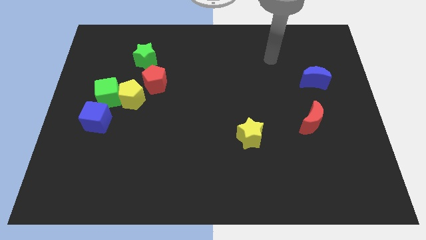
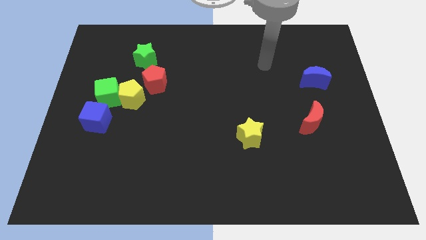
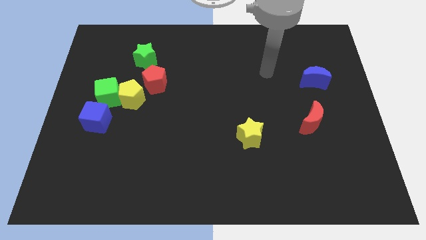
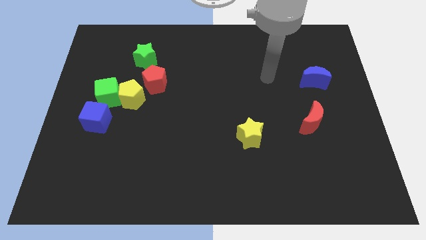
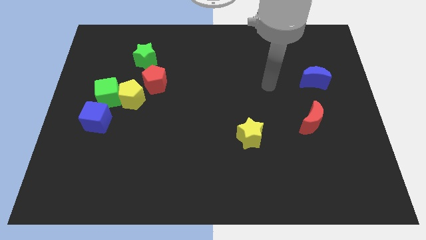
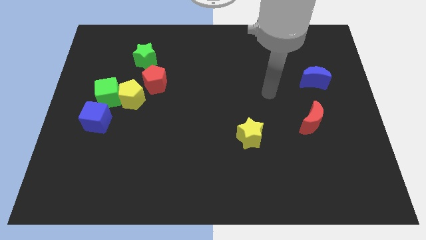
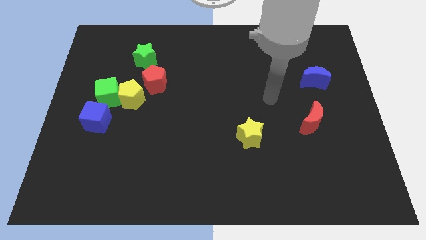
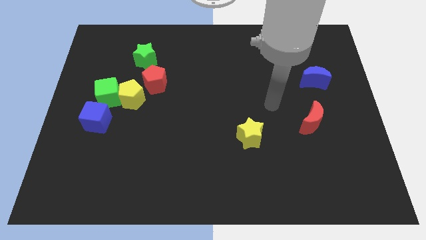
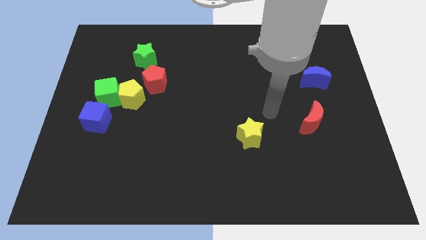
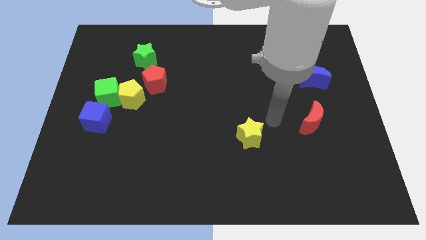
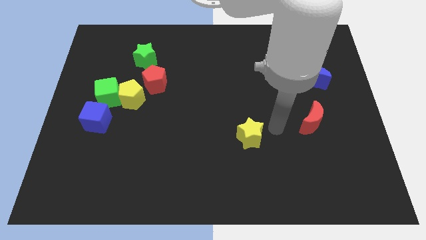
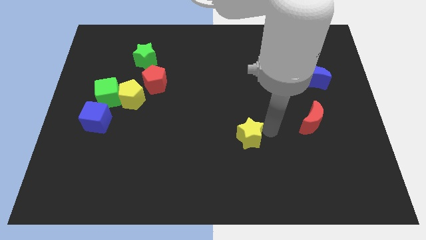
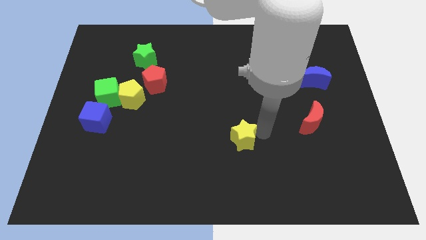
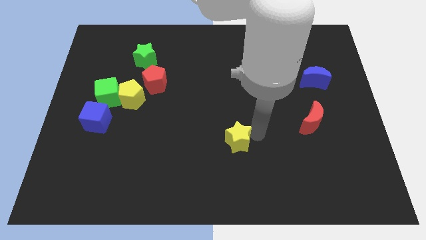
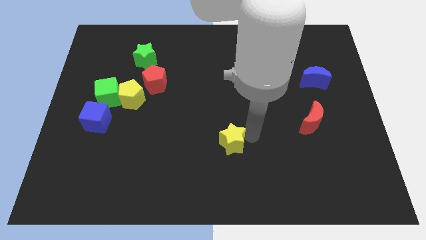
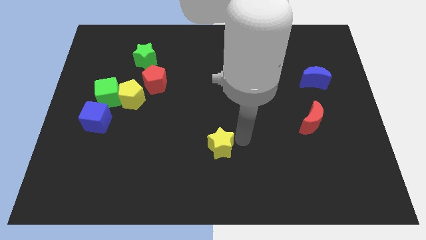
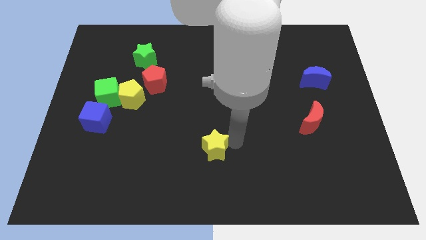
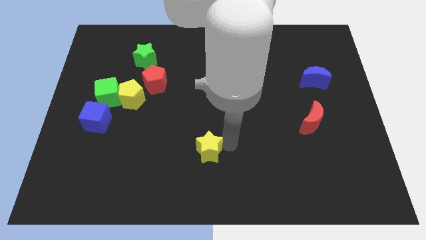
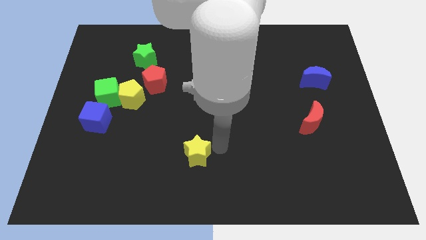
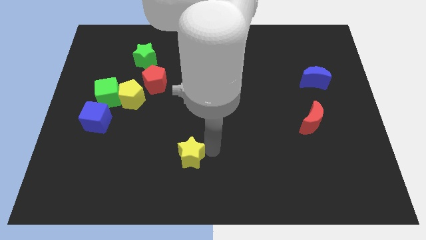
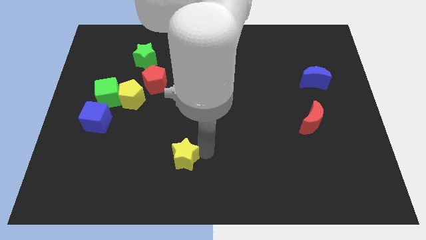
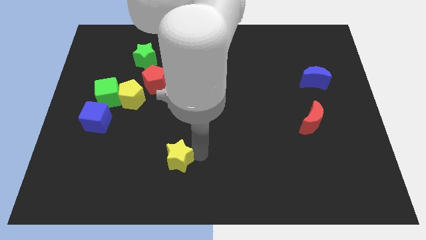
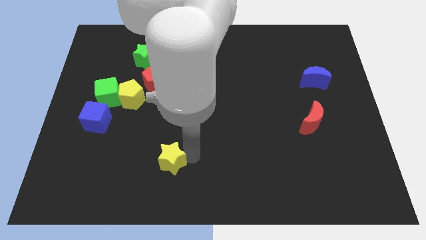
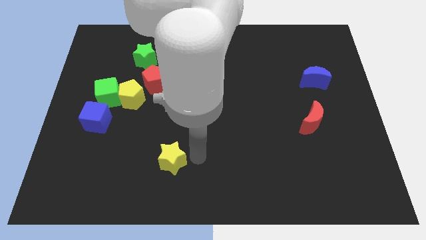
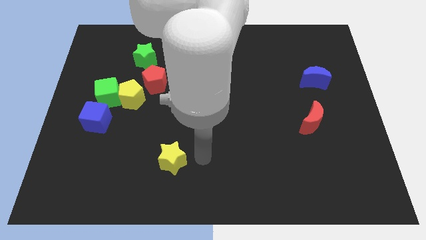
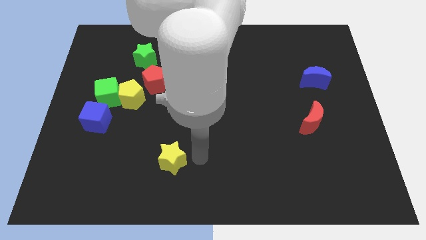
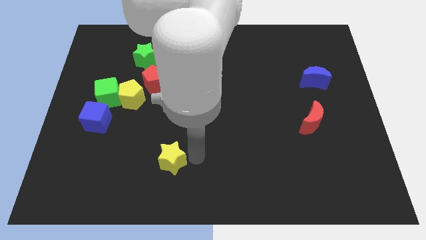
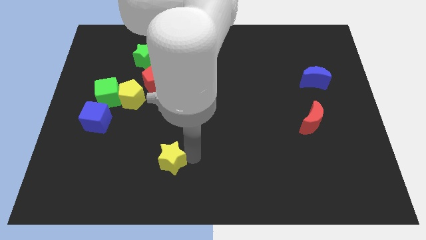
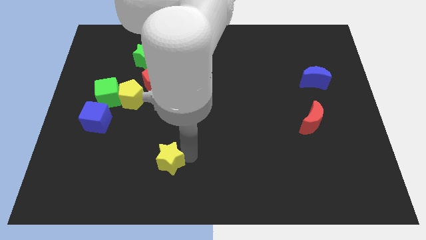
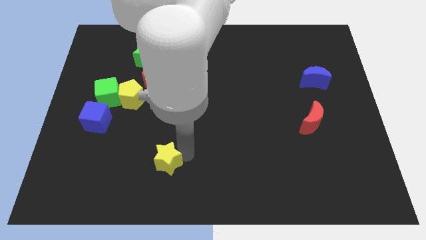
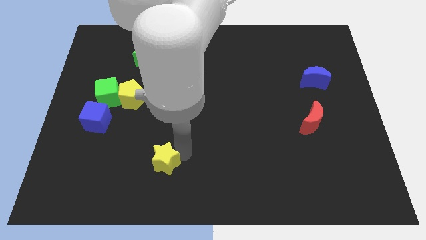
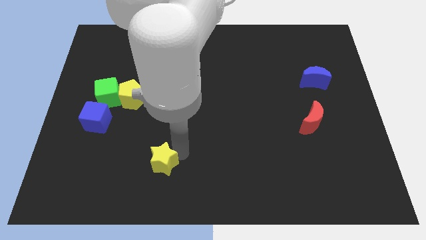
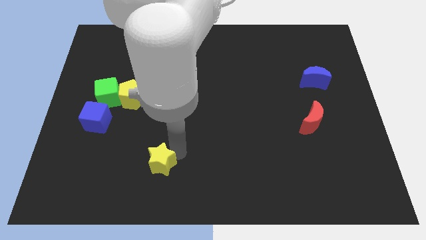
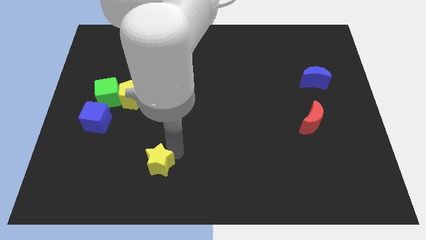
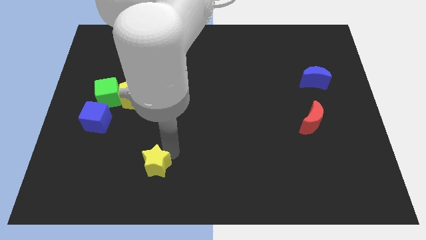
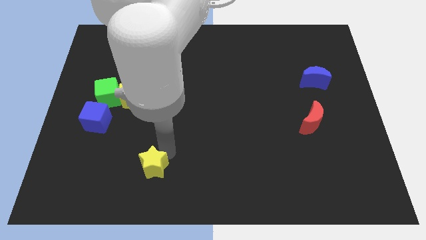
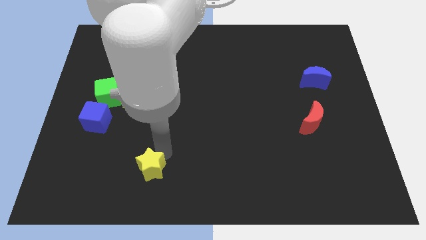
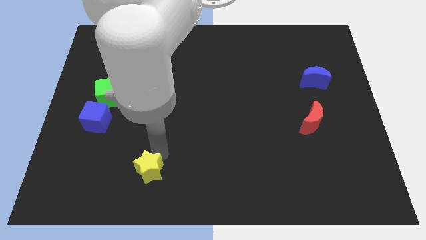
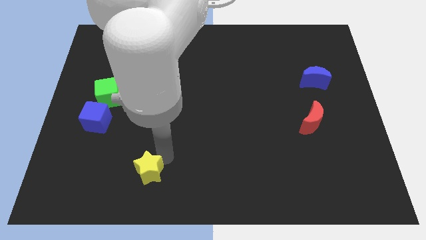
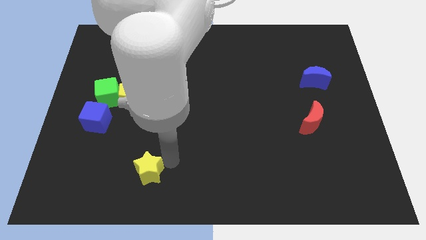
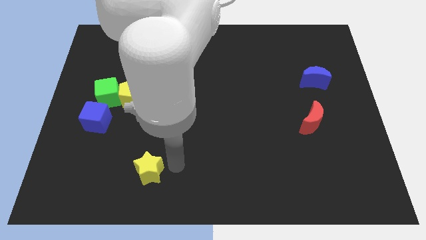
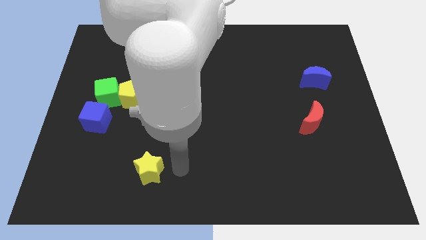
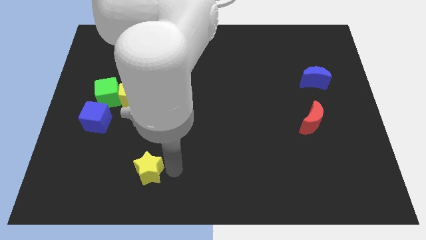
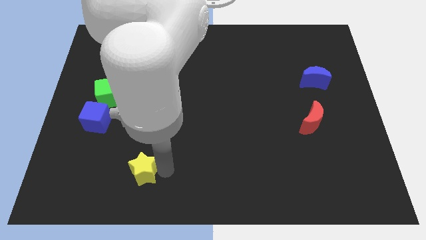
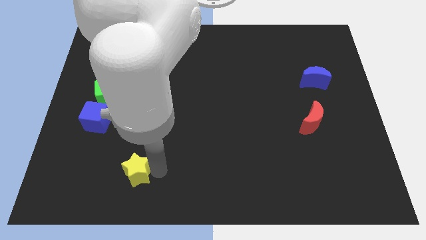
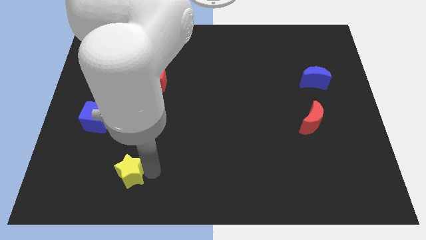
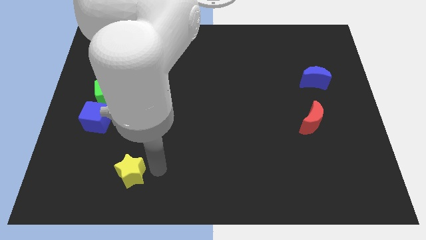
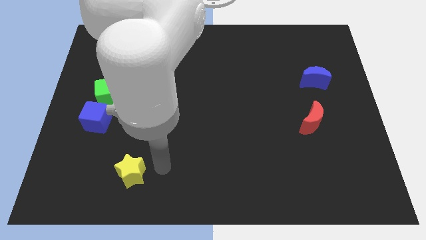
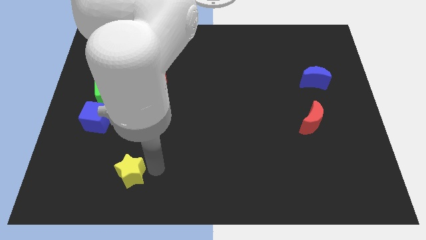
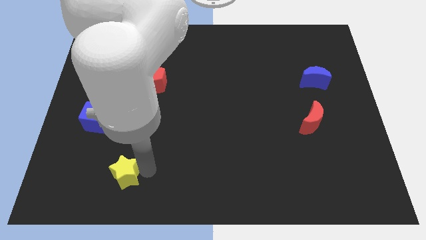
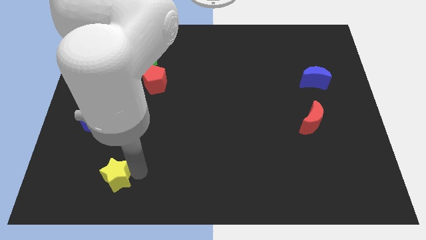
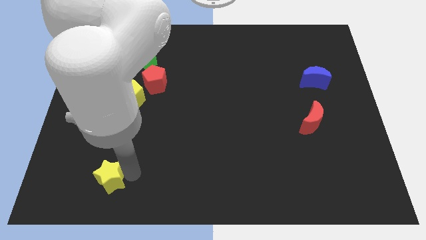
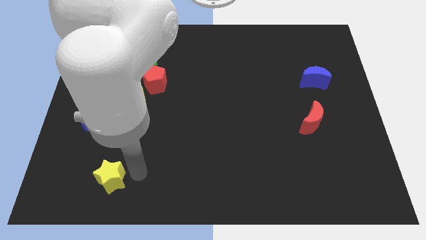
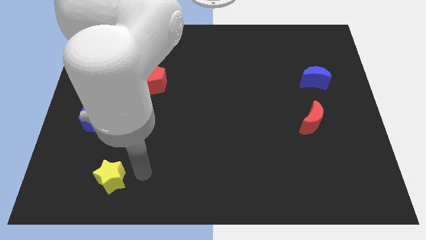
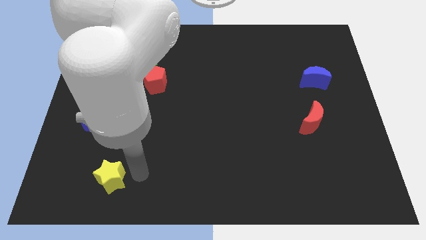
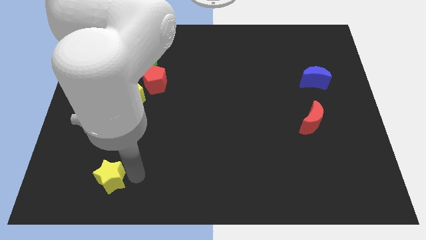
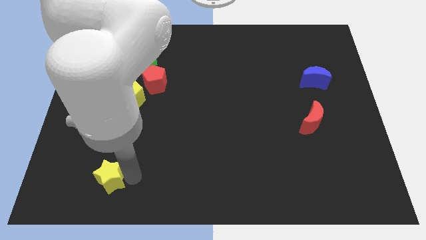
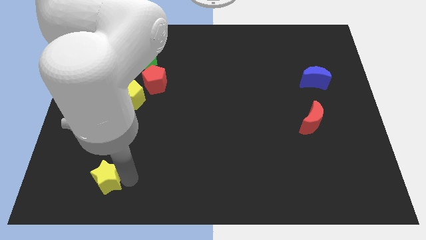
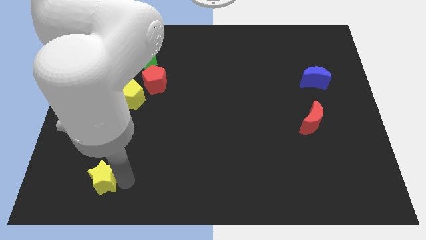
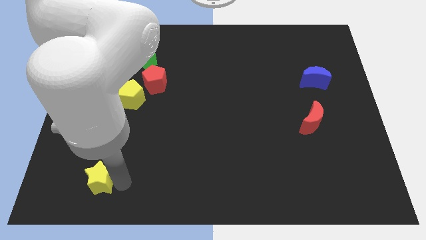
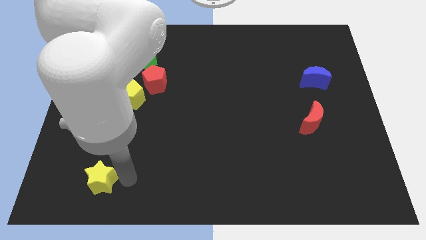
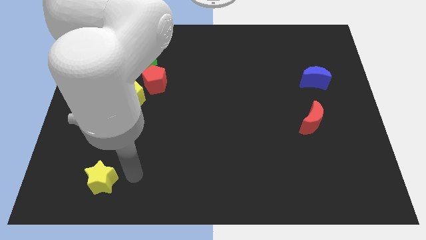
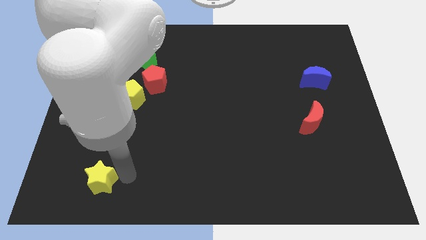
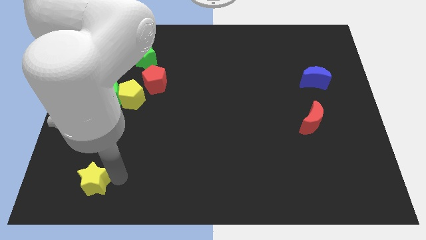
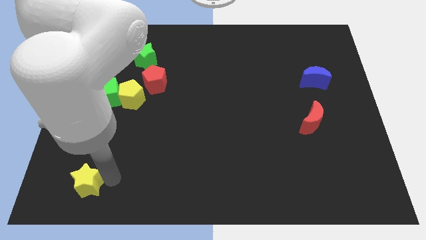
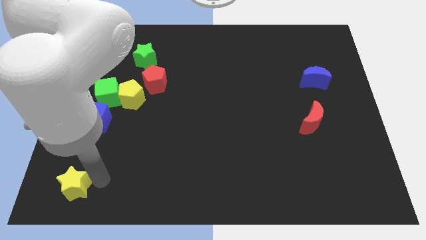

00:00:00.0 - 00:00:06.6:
slide the yellow star to the lower left corner
